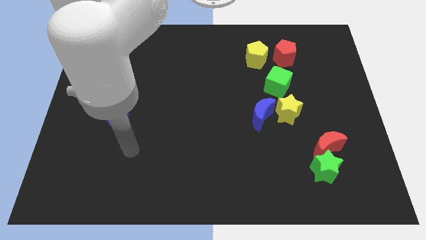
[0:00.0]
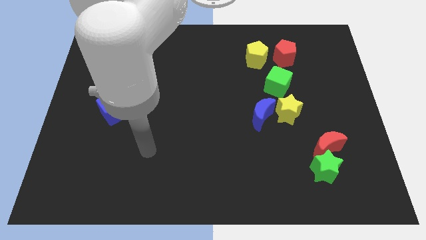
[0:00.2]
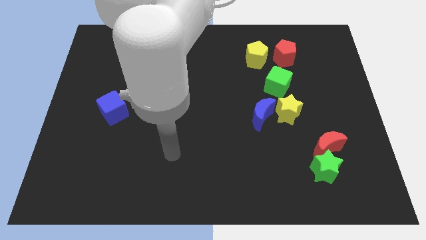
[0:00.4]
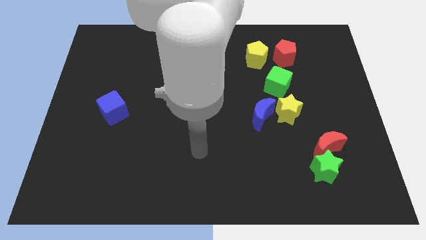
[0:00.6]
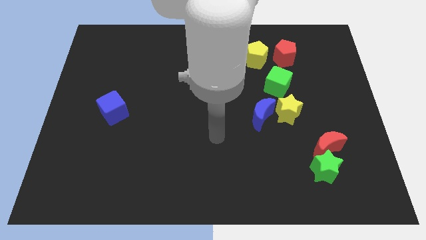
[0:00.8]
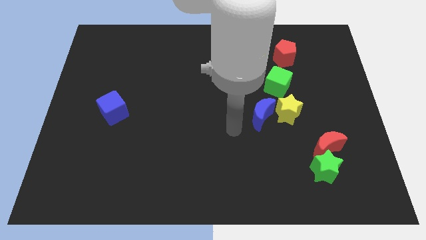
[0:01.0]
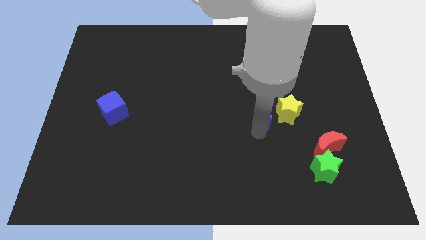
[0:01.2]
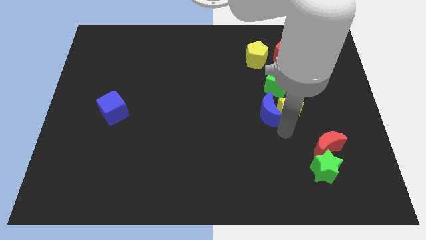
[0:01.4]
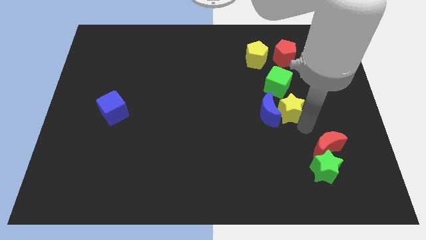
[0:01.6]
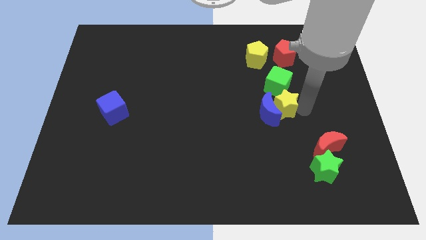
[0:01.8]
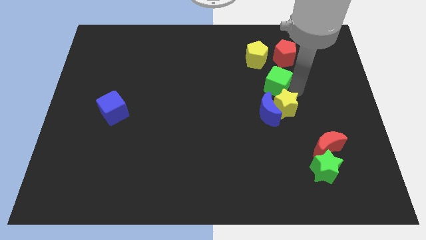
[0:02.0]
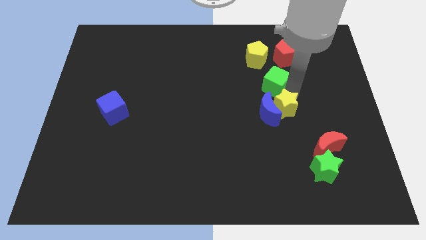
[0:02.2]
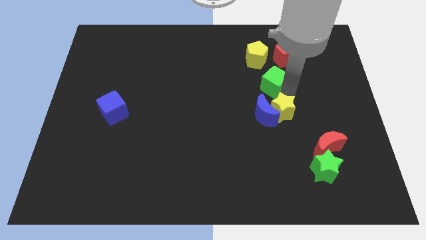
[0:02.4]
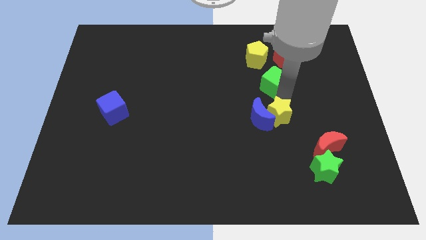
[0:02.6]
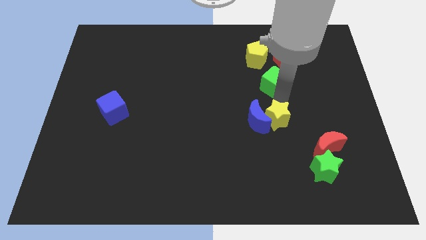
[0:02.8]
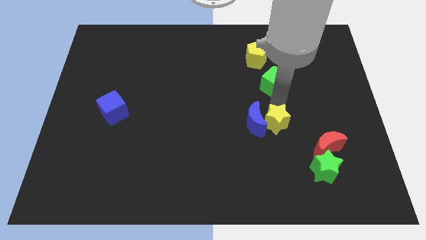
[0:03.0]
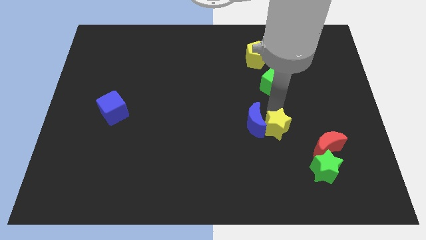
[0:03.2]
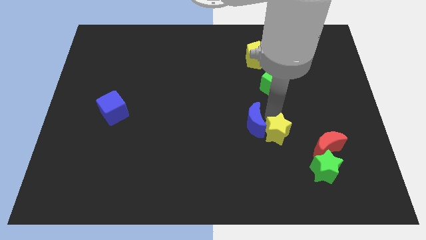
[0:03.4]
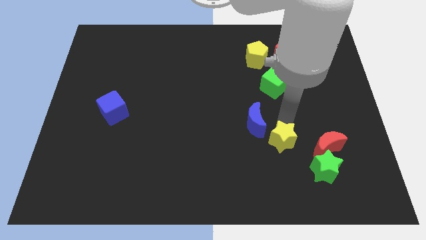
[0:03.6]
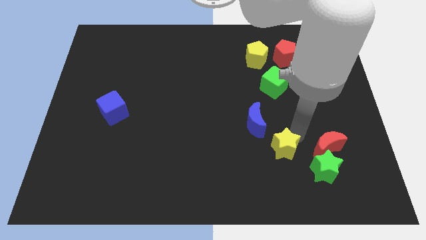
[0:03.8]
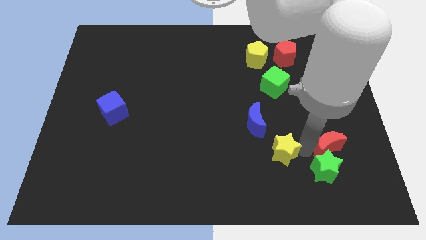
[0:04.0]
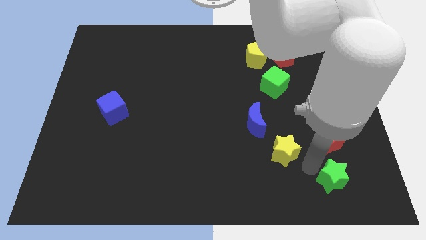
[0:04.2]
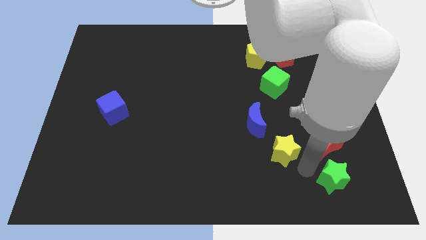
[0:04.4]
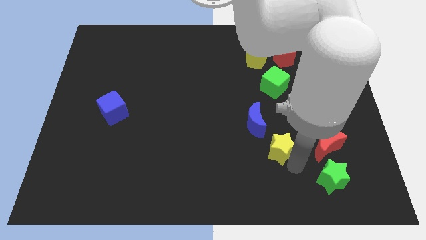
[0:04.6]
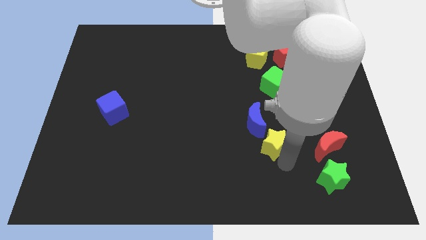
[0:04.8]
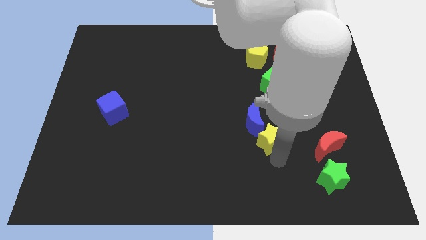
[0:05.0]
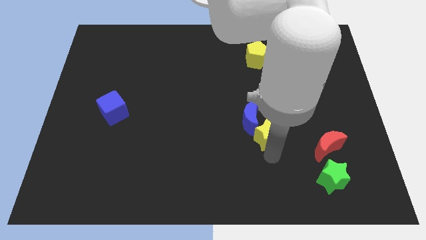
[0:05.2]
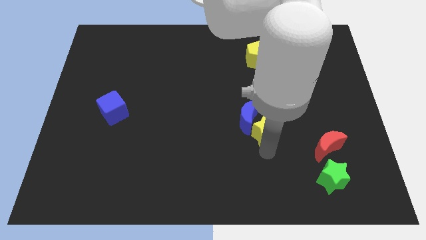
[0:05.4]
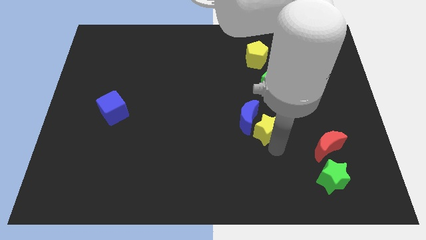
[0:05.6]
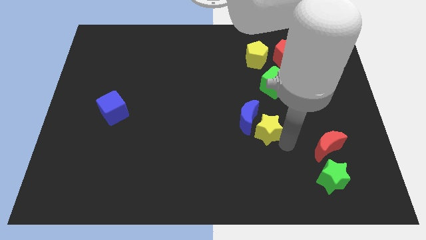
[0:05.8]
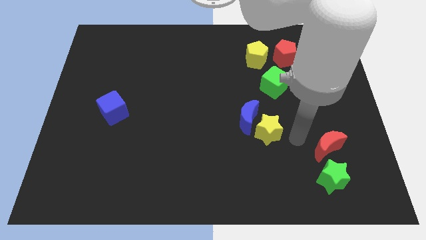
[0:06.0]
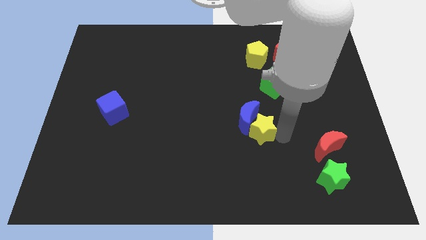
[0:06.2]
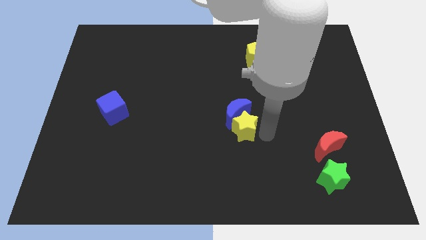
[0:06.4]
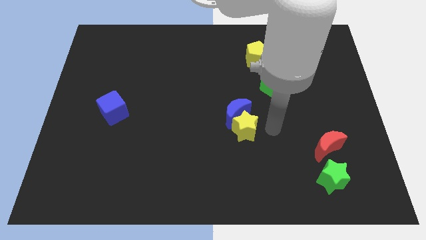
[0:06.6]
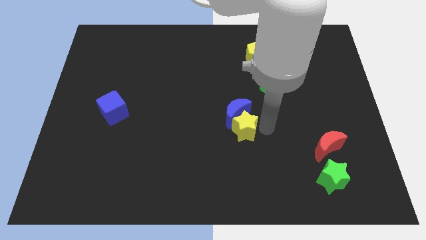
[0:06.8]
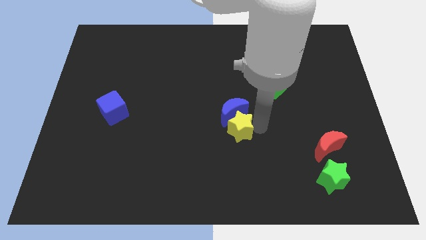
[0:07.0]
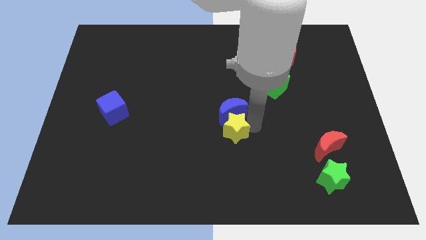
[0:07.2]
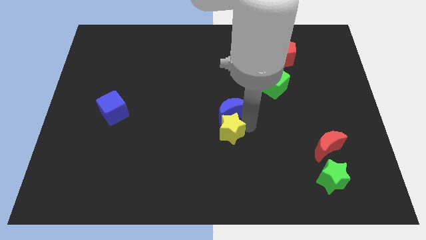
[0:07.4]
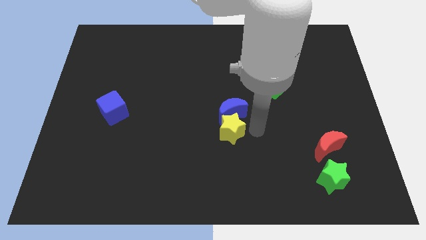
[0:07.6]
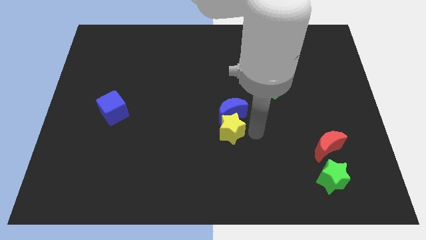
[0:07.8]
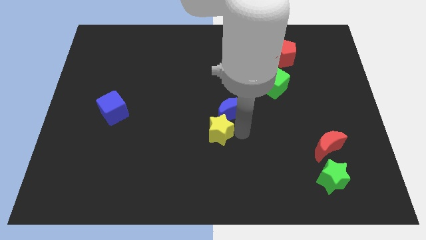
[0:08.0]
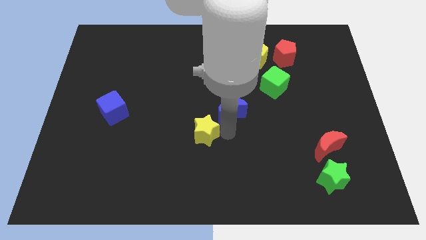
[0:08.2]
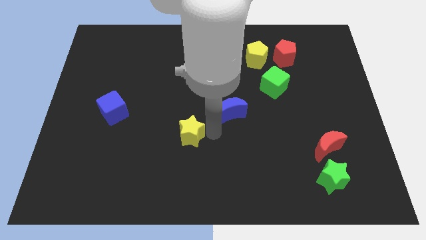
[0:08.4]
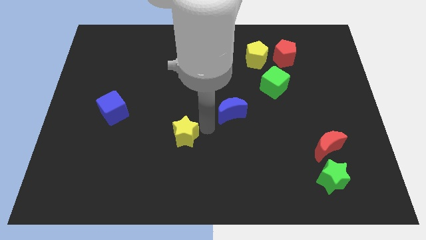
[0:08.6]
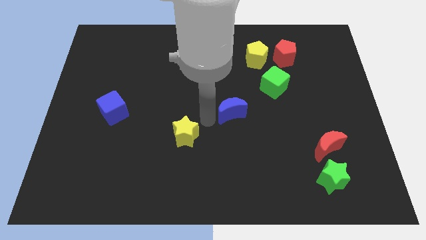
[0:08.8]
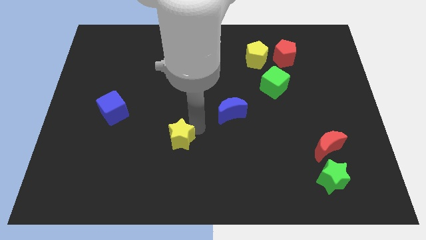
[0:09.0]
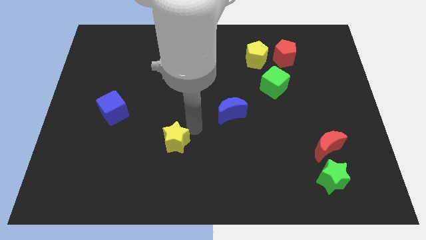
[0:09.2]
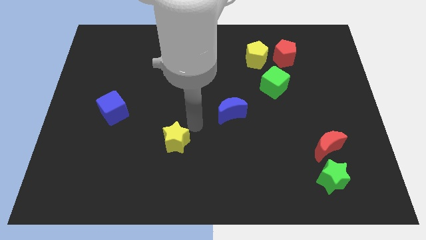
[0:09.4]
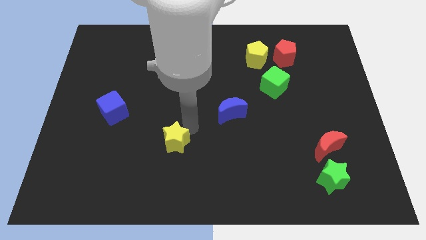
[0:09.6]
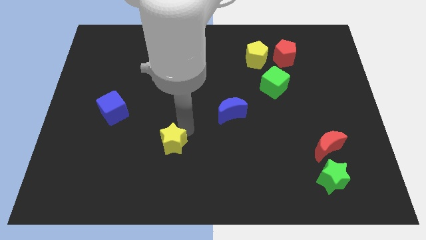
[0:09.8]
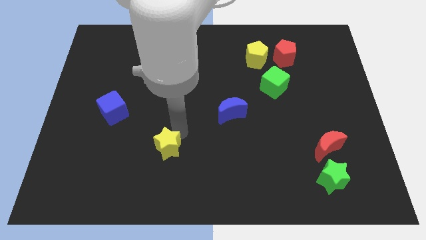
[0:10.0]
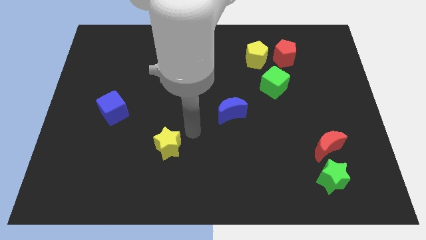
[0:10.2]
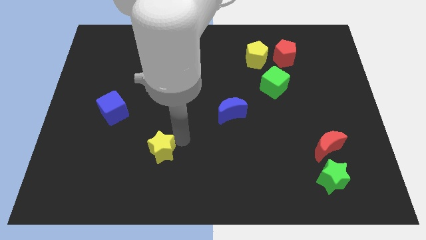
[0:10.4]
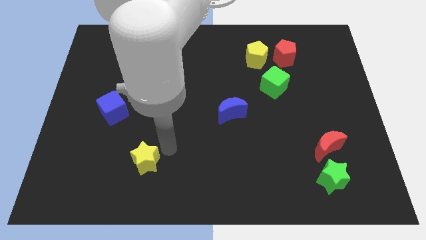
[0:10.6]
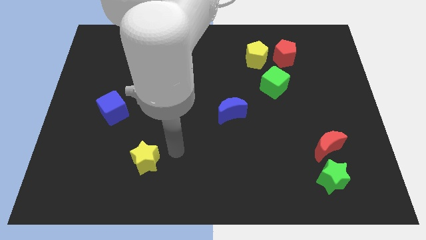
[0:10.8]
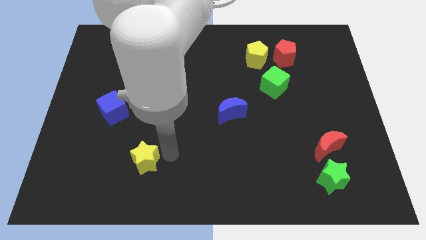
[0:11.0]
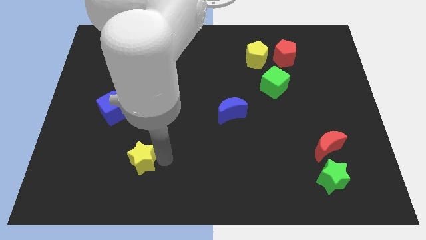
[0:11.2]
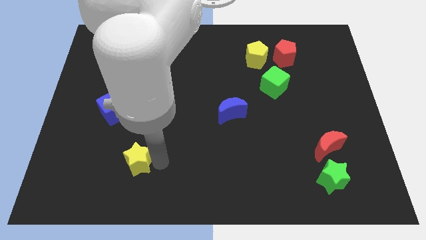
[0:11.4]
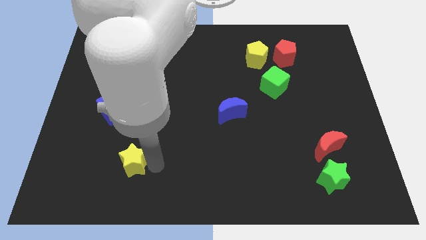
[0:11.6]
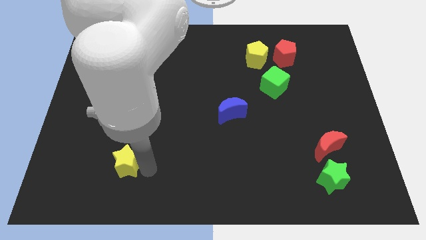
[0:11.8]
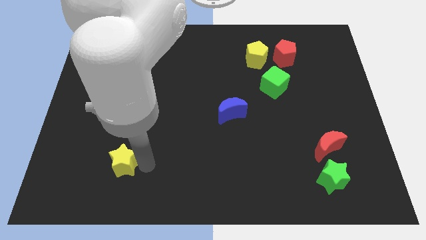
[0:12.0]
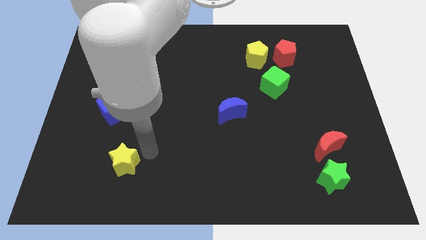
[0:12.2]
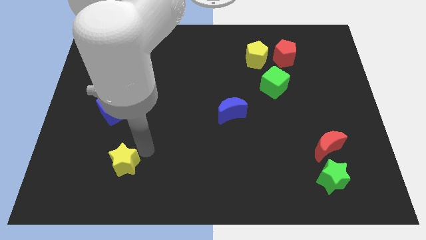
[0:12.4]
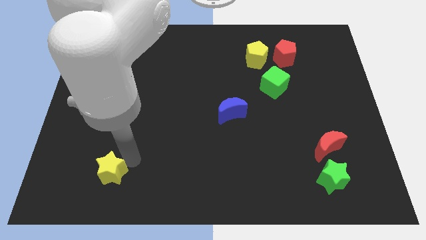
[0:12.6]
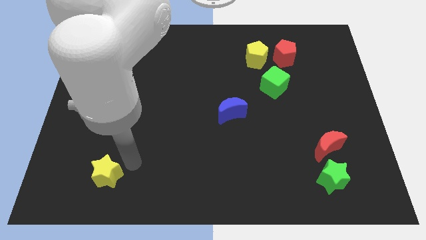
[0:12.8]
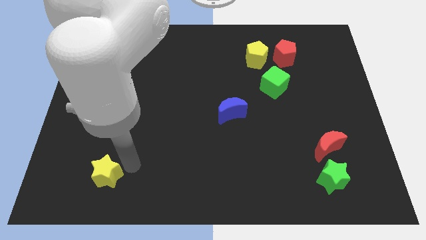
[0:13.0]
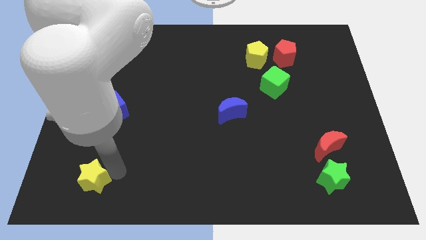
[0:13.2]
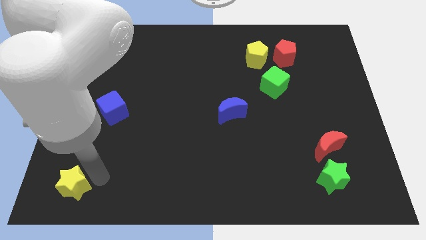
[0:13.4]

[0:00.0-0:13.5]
slide the yellow star to the bottom left corner
